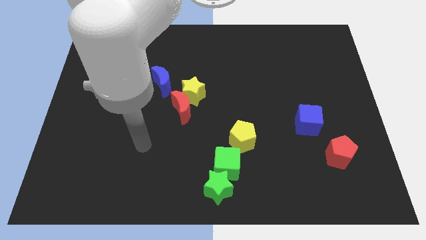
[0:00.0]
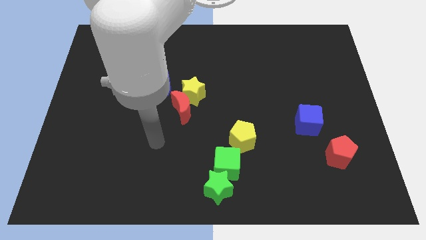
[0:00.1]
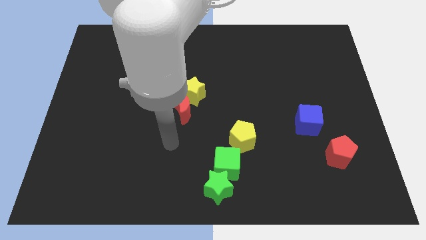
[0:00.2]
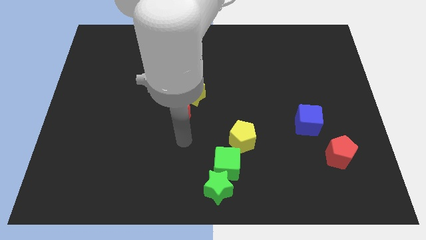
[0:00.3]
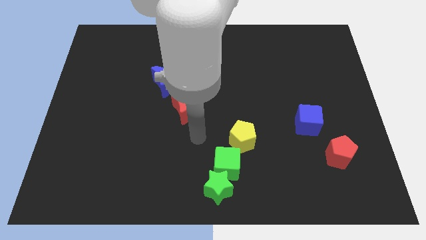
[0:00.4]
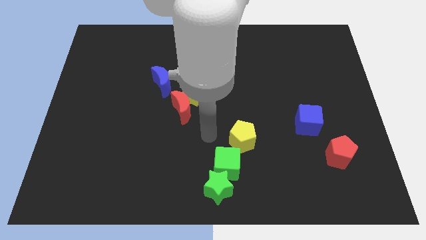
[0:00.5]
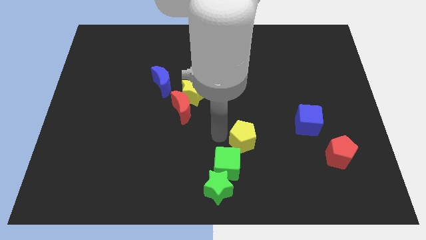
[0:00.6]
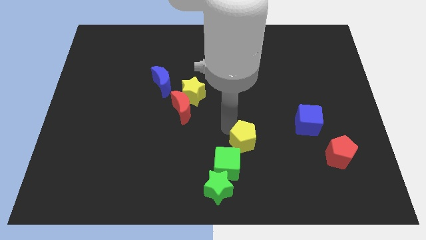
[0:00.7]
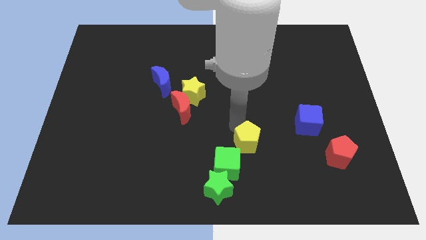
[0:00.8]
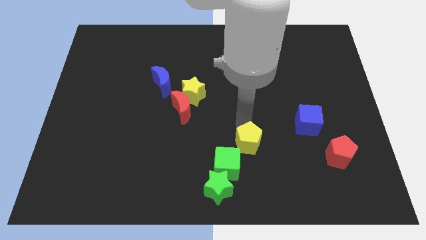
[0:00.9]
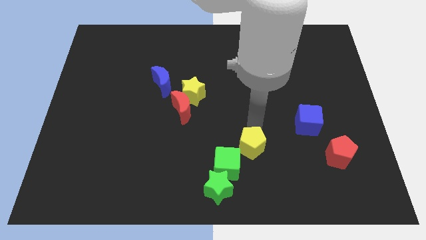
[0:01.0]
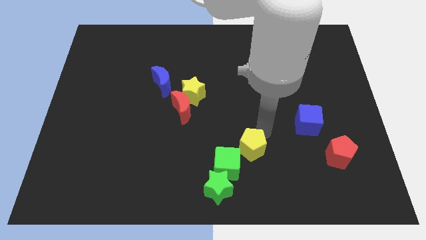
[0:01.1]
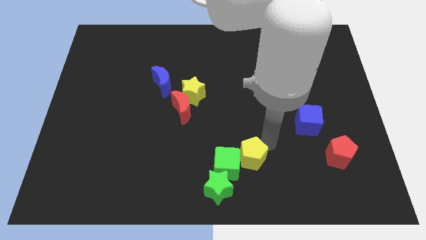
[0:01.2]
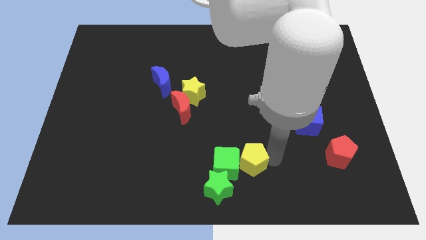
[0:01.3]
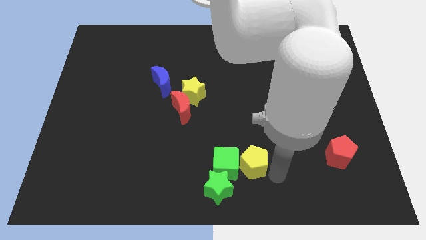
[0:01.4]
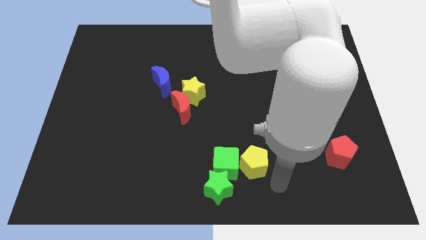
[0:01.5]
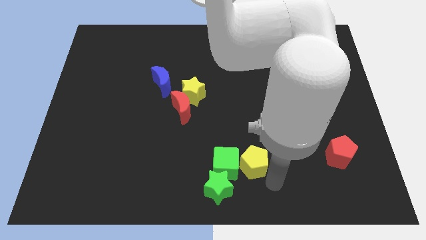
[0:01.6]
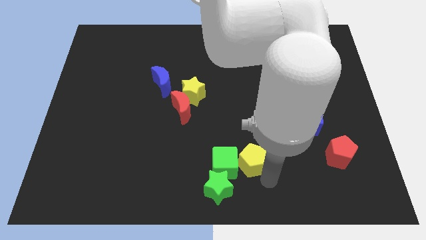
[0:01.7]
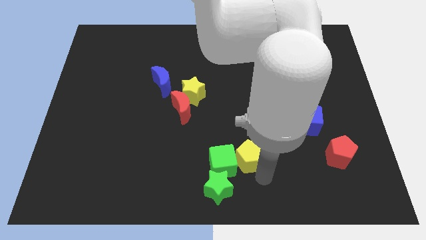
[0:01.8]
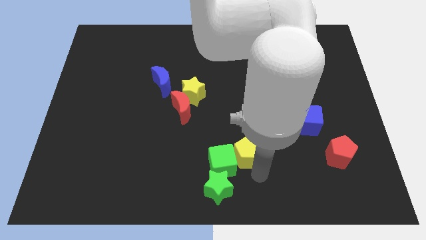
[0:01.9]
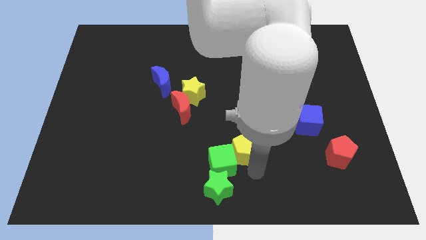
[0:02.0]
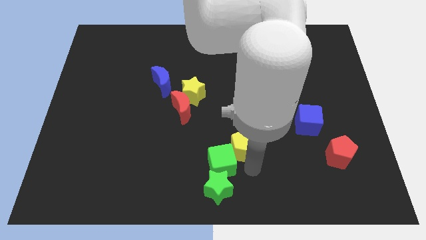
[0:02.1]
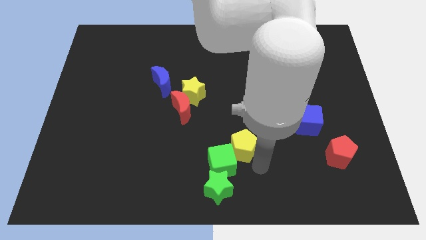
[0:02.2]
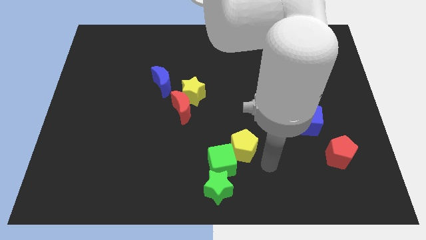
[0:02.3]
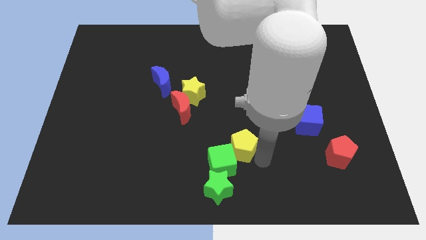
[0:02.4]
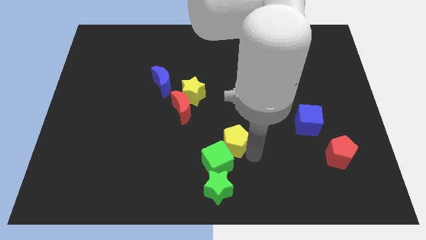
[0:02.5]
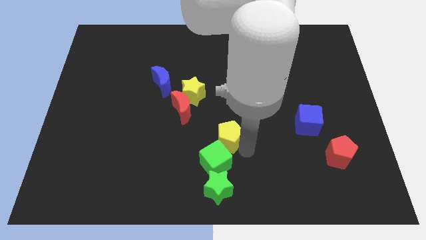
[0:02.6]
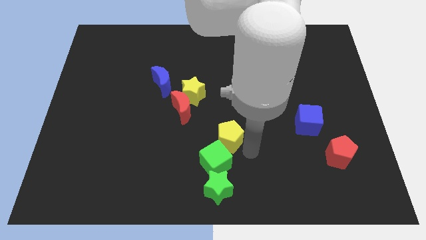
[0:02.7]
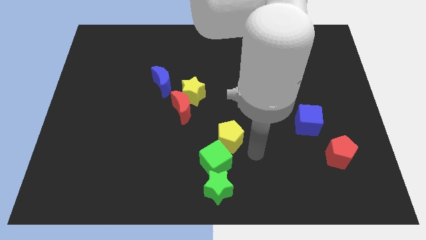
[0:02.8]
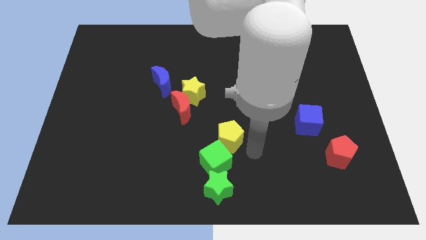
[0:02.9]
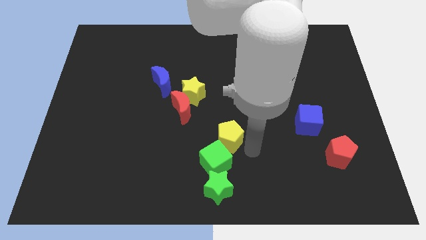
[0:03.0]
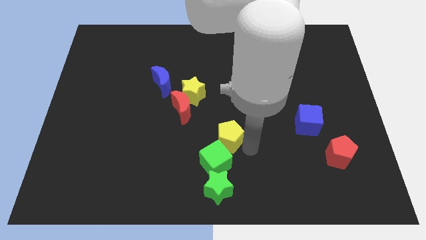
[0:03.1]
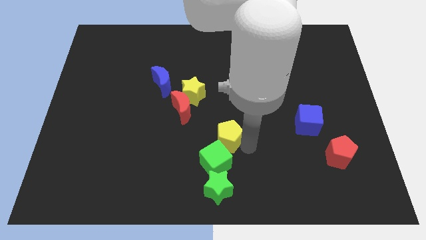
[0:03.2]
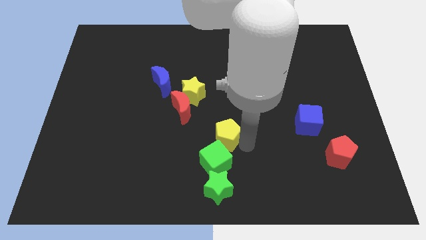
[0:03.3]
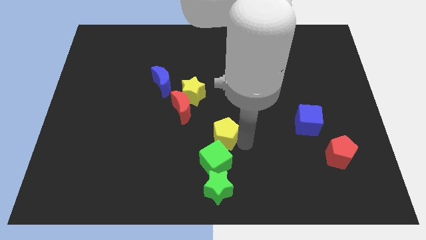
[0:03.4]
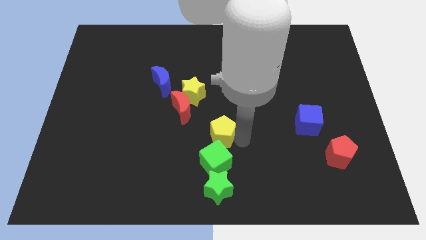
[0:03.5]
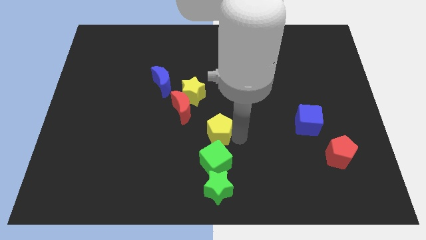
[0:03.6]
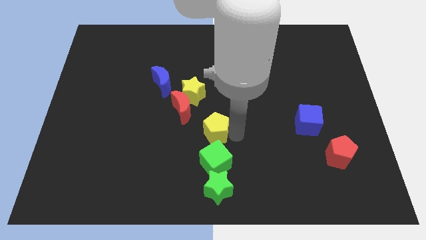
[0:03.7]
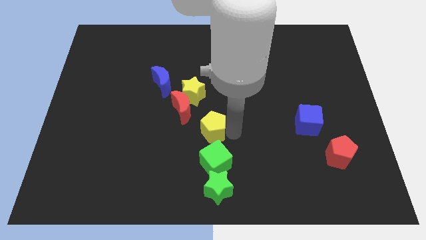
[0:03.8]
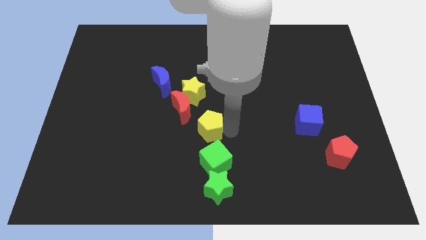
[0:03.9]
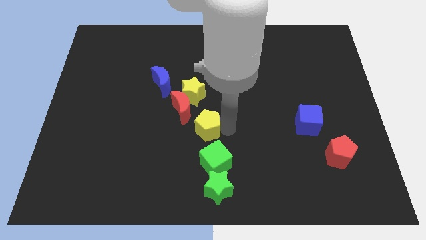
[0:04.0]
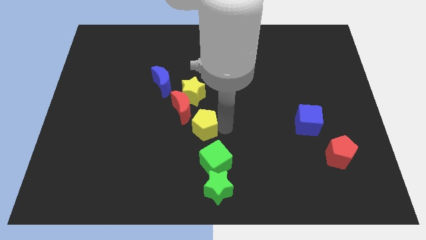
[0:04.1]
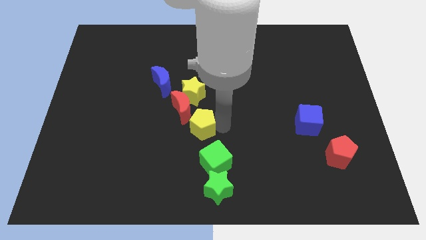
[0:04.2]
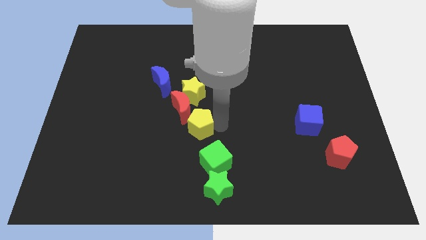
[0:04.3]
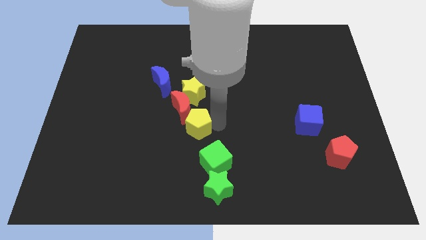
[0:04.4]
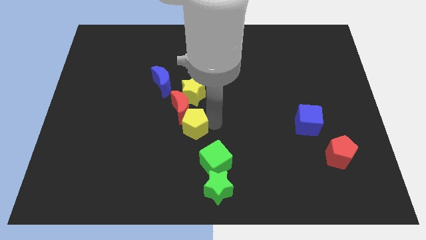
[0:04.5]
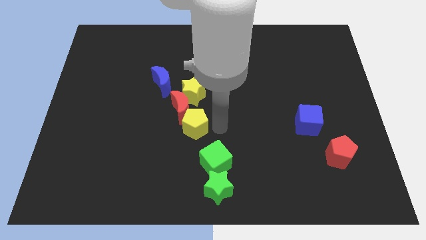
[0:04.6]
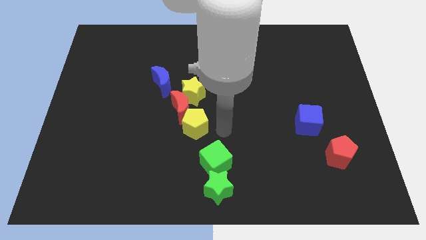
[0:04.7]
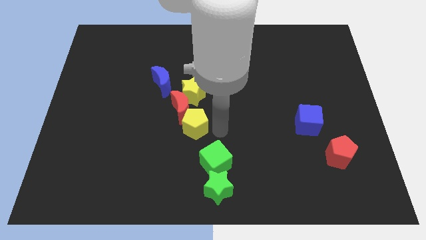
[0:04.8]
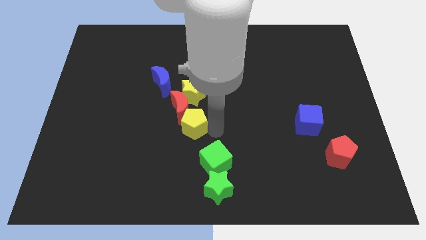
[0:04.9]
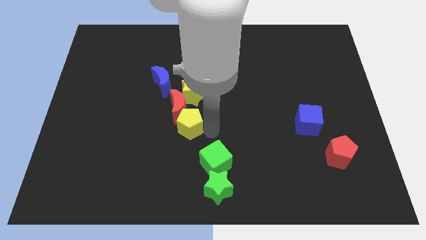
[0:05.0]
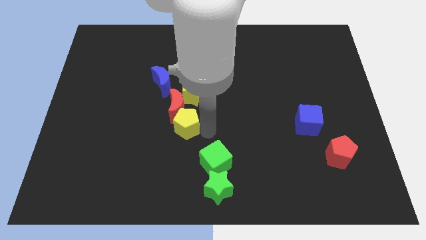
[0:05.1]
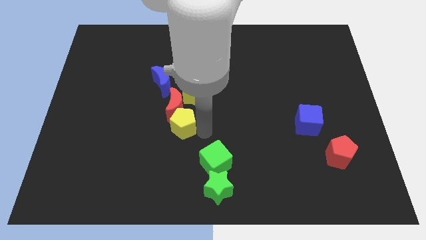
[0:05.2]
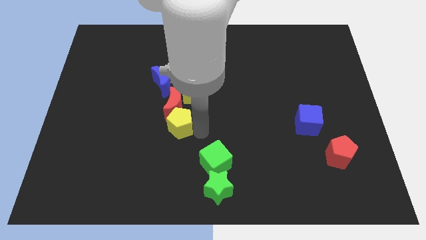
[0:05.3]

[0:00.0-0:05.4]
slide the yellow pentagon diagonally down and to the left of the yellow star

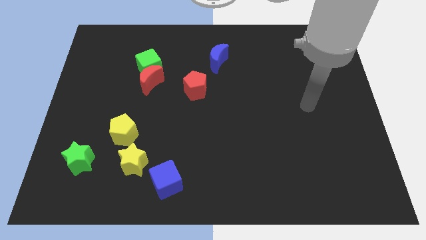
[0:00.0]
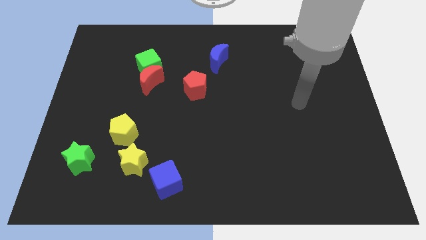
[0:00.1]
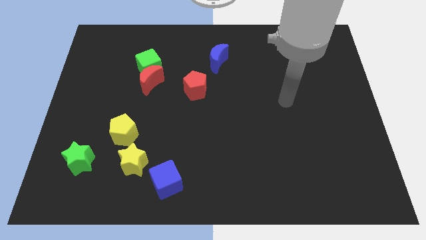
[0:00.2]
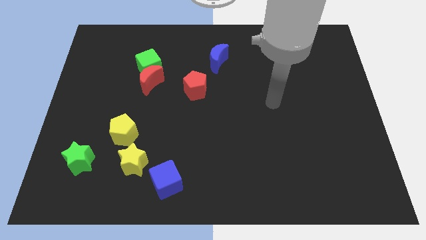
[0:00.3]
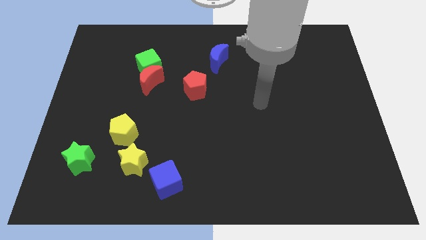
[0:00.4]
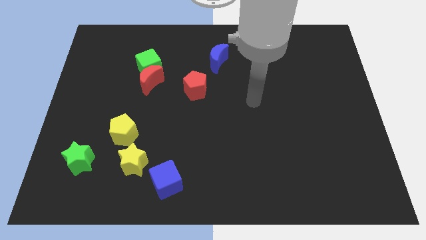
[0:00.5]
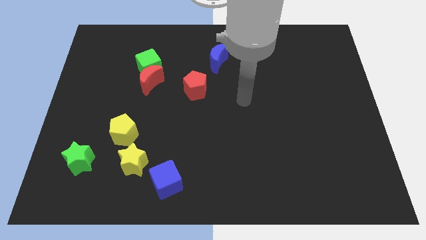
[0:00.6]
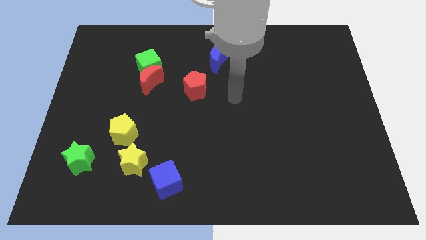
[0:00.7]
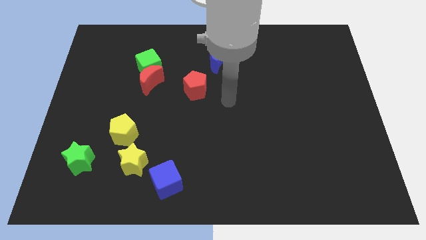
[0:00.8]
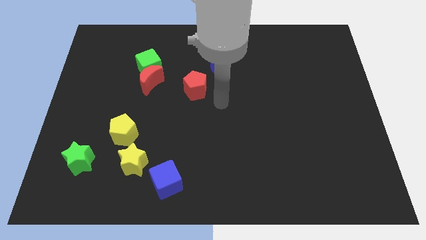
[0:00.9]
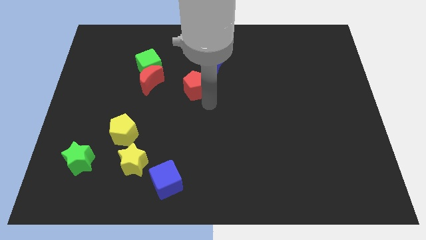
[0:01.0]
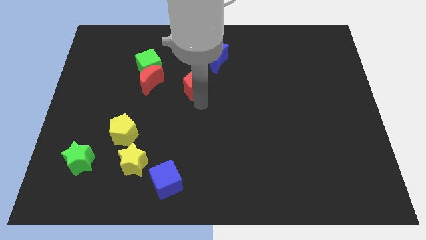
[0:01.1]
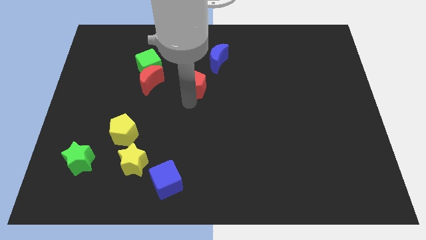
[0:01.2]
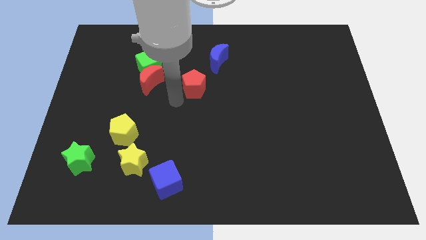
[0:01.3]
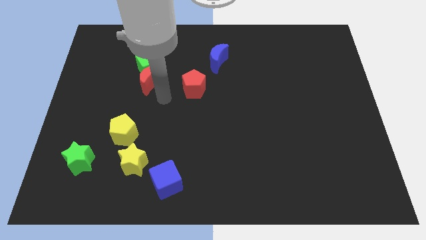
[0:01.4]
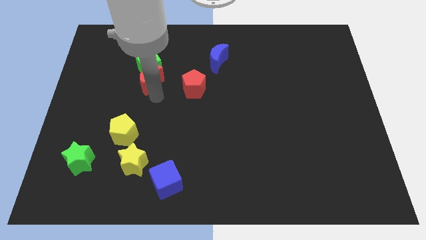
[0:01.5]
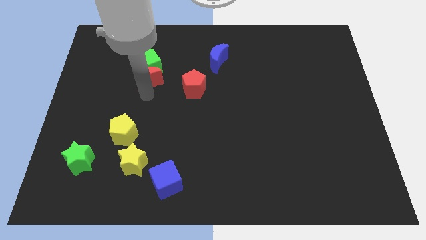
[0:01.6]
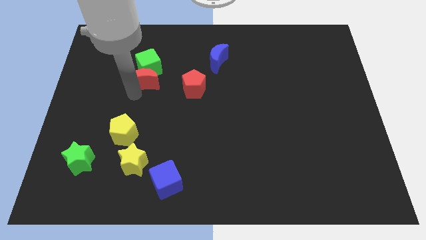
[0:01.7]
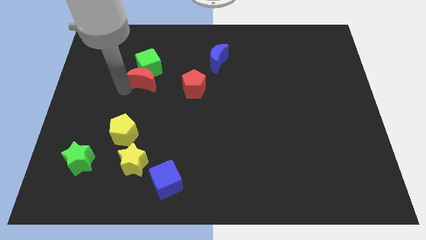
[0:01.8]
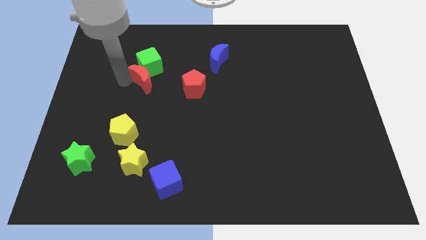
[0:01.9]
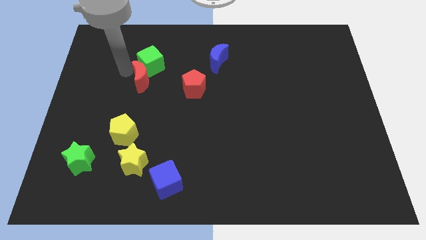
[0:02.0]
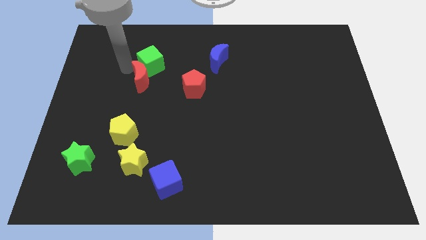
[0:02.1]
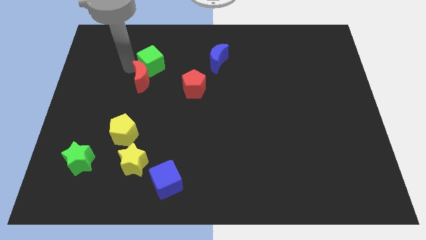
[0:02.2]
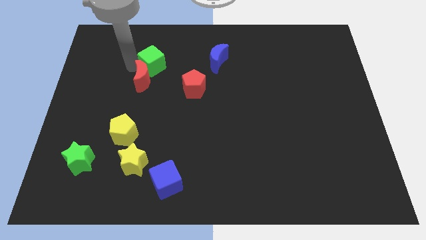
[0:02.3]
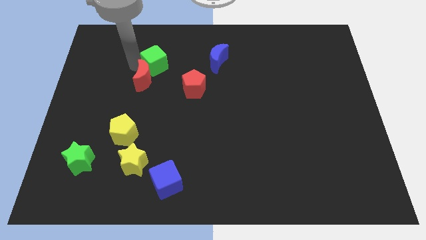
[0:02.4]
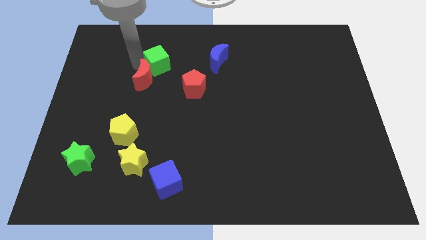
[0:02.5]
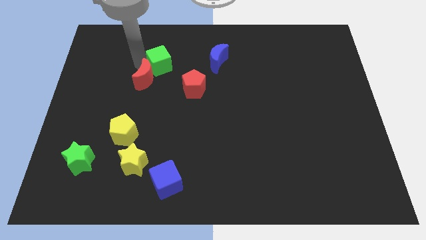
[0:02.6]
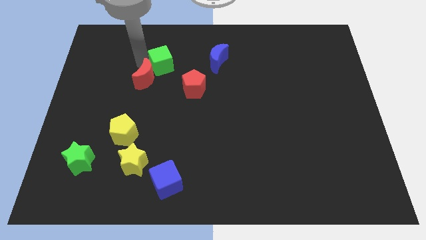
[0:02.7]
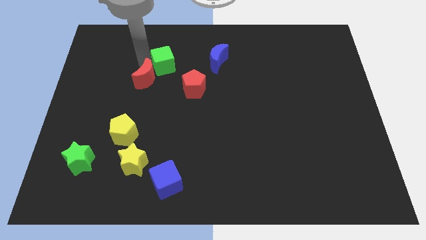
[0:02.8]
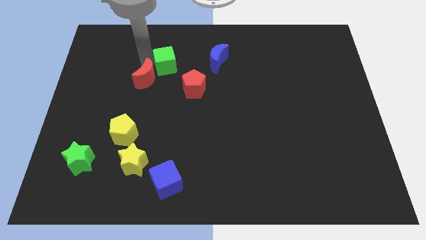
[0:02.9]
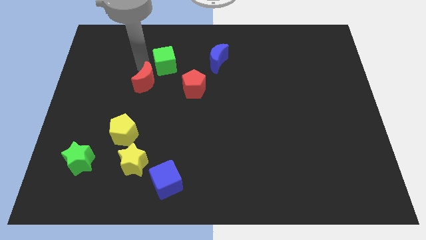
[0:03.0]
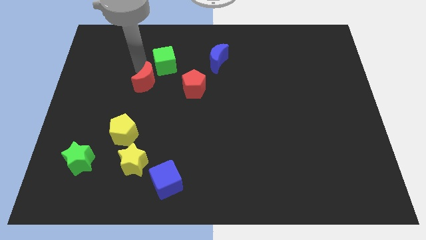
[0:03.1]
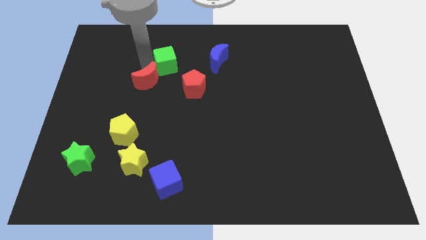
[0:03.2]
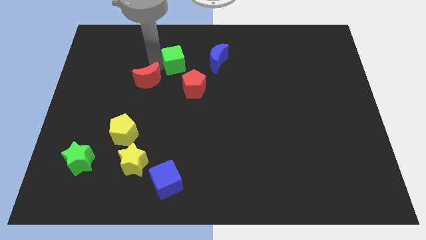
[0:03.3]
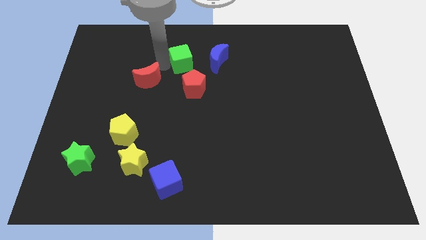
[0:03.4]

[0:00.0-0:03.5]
slide the green cube above the red pentagon
